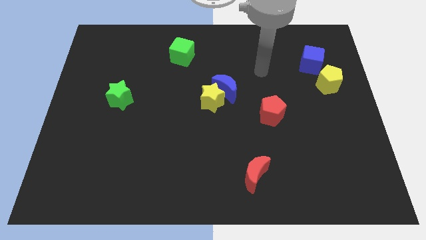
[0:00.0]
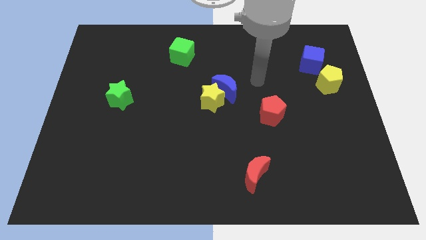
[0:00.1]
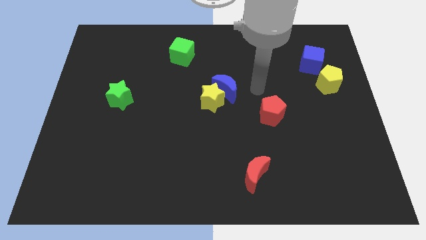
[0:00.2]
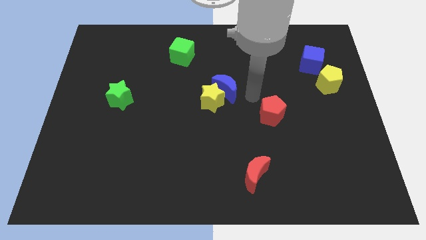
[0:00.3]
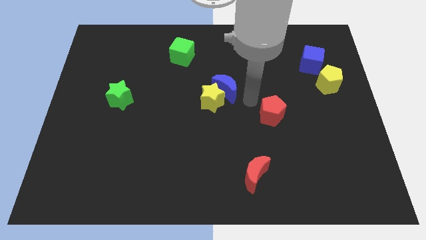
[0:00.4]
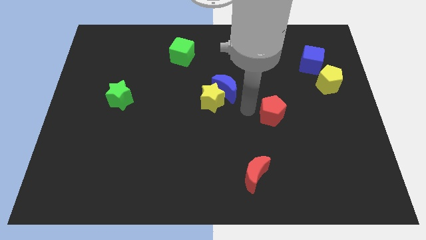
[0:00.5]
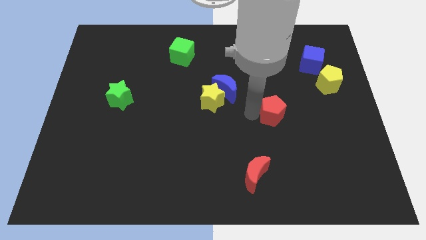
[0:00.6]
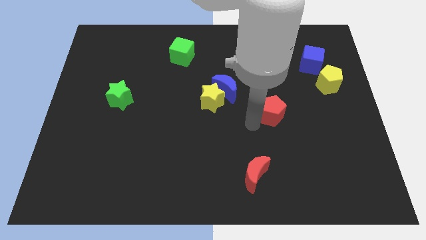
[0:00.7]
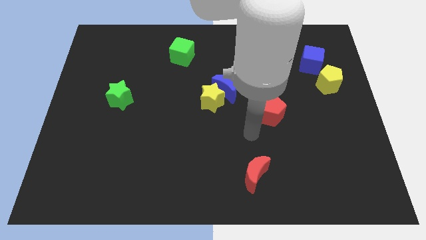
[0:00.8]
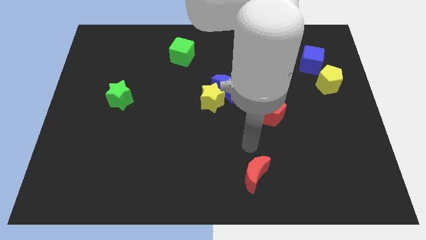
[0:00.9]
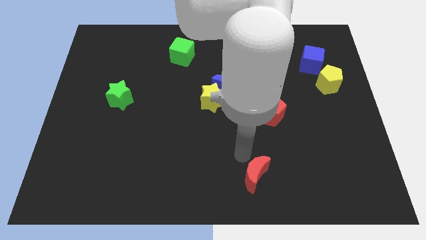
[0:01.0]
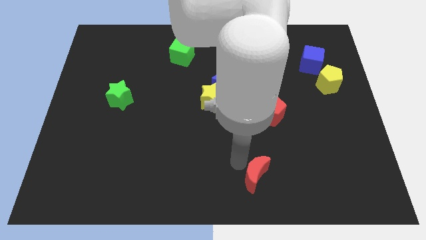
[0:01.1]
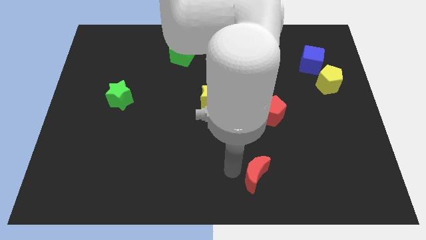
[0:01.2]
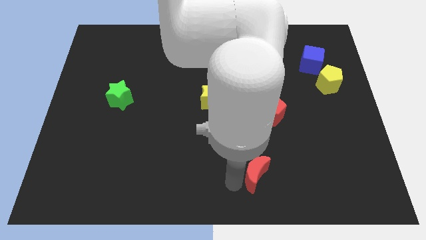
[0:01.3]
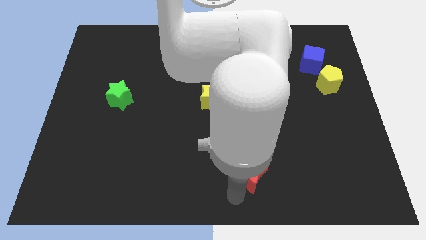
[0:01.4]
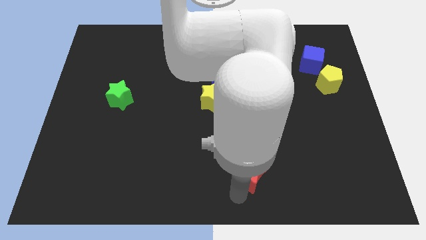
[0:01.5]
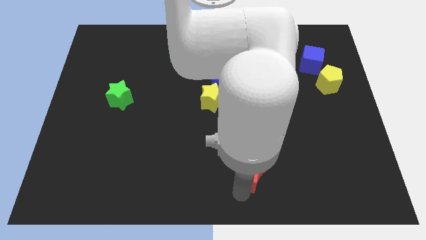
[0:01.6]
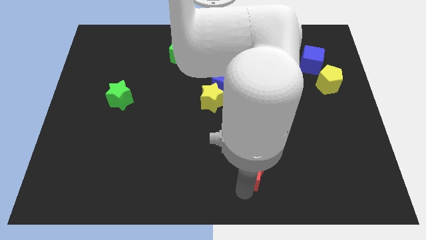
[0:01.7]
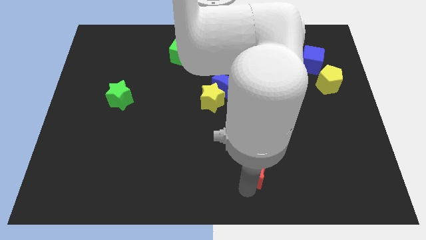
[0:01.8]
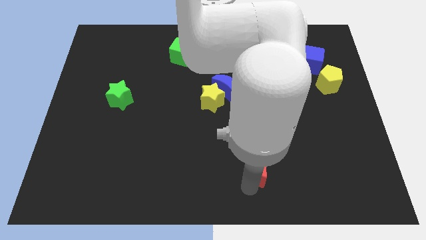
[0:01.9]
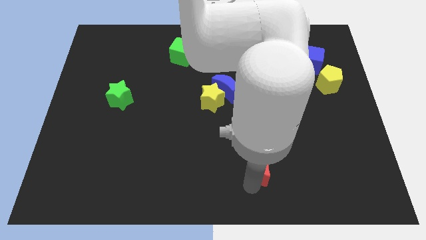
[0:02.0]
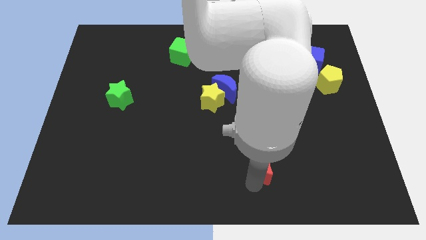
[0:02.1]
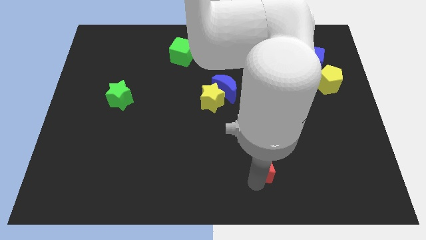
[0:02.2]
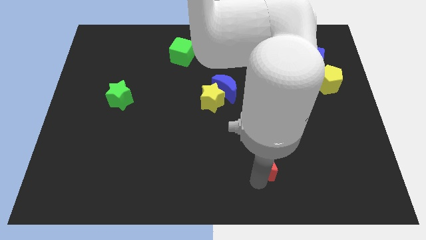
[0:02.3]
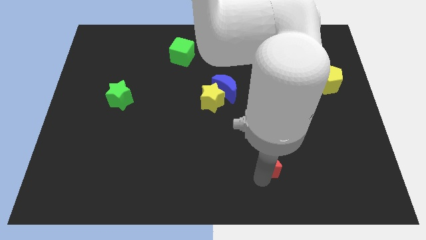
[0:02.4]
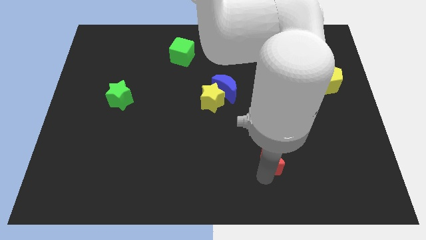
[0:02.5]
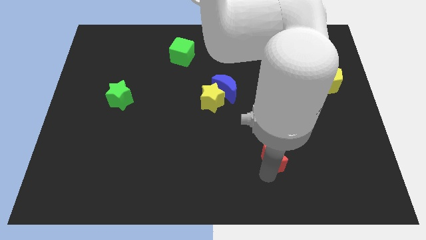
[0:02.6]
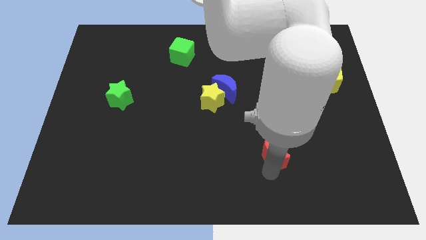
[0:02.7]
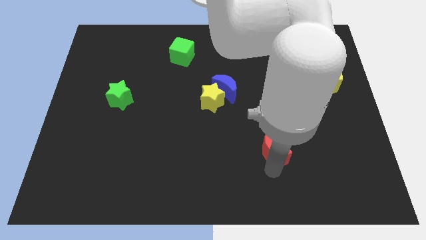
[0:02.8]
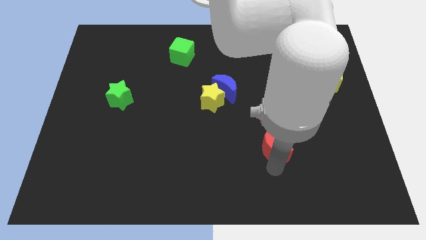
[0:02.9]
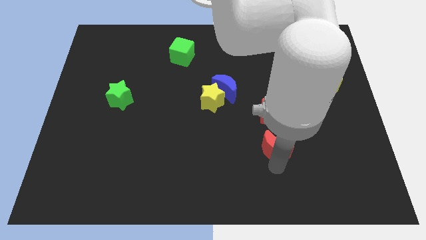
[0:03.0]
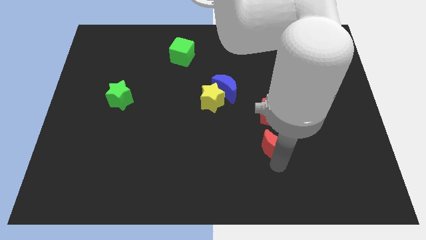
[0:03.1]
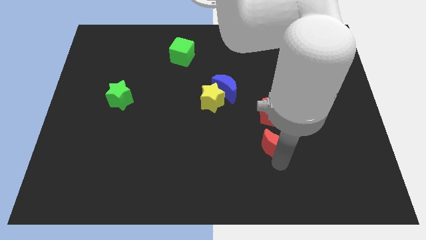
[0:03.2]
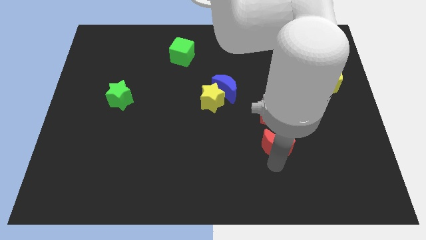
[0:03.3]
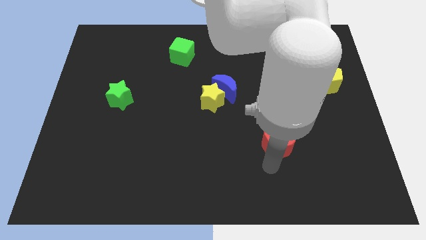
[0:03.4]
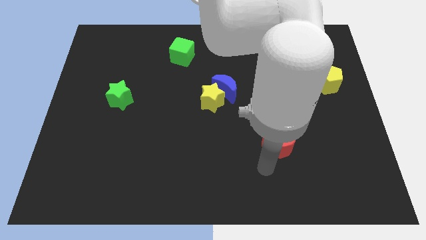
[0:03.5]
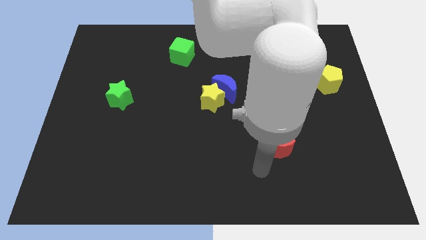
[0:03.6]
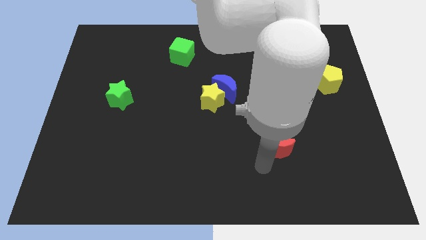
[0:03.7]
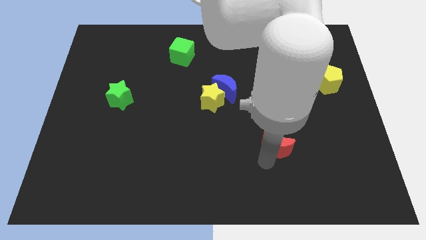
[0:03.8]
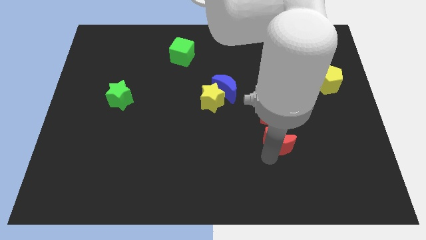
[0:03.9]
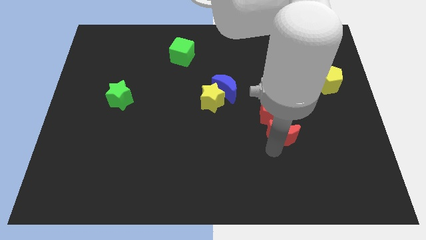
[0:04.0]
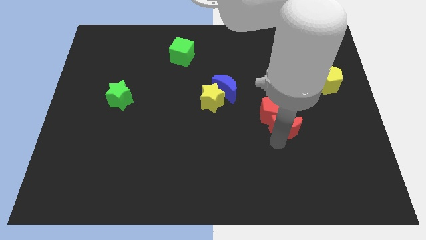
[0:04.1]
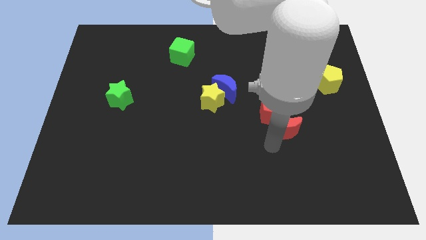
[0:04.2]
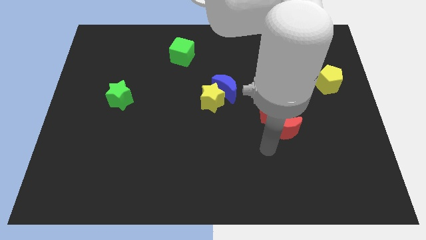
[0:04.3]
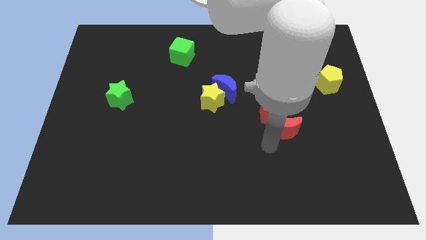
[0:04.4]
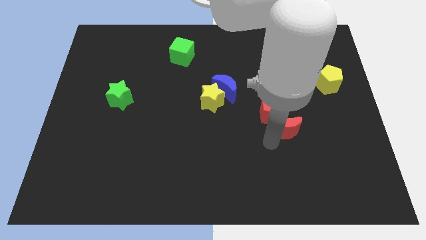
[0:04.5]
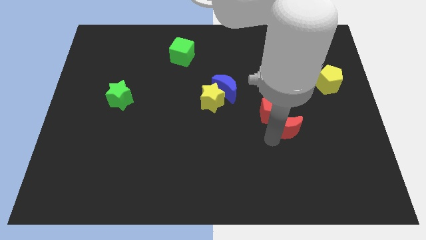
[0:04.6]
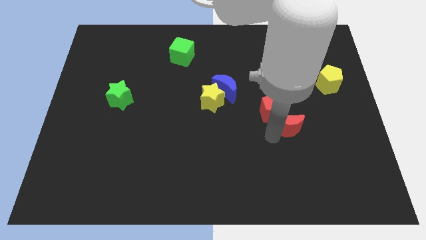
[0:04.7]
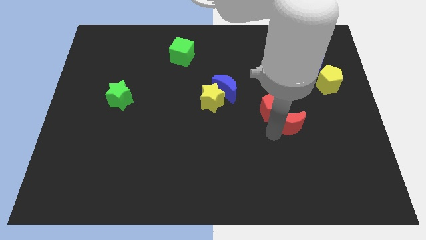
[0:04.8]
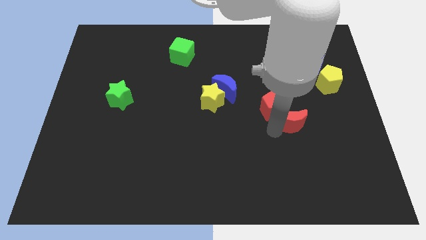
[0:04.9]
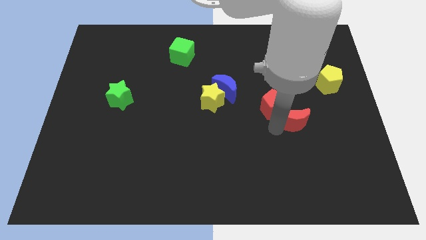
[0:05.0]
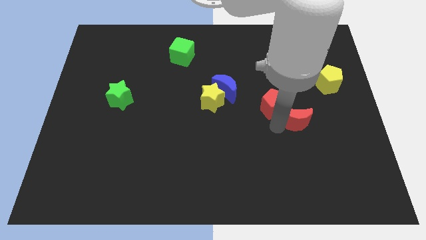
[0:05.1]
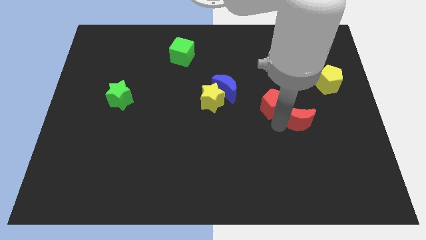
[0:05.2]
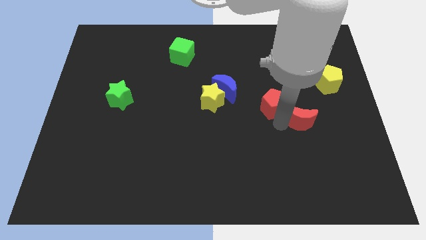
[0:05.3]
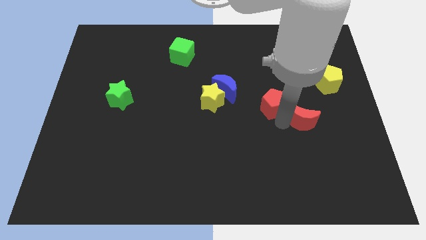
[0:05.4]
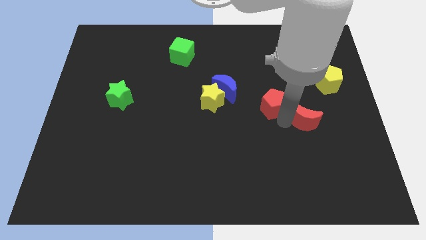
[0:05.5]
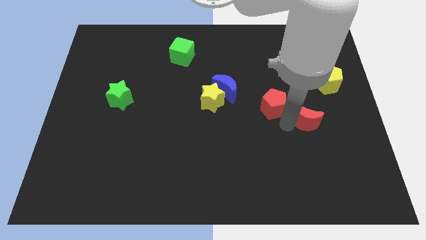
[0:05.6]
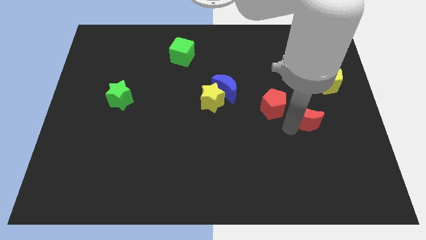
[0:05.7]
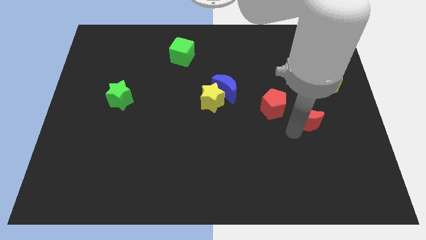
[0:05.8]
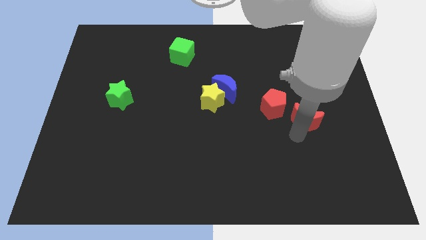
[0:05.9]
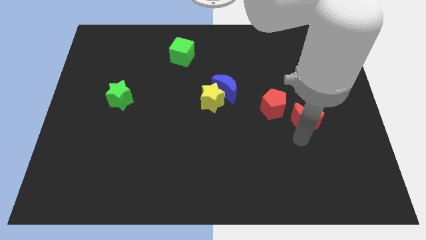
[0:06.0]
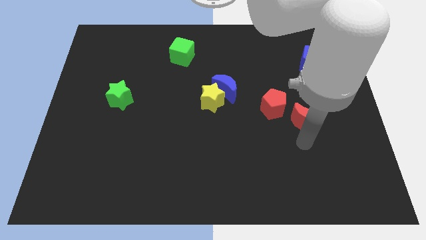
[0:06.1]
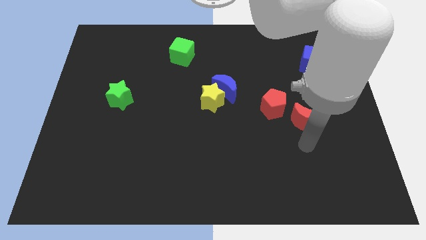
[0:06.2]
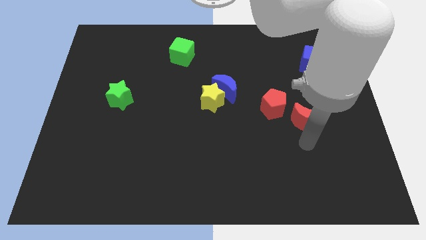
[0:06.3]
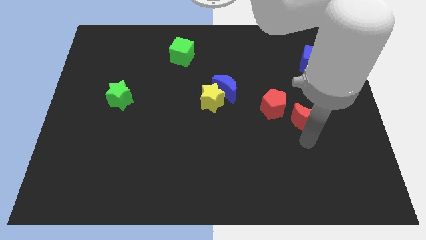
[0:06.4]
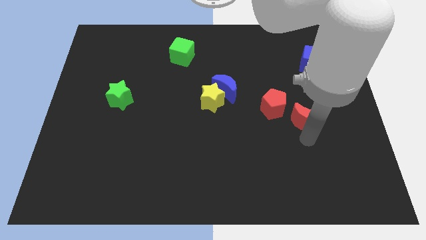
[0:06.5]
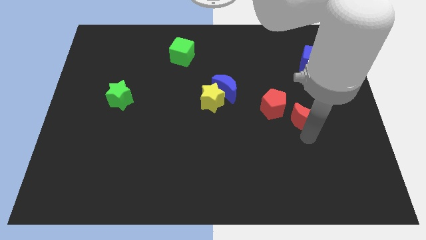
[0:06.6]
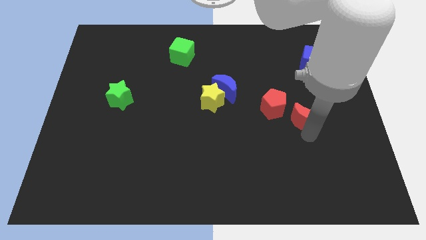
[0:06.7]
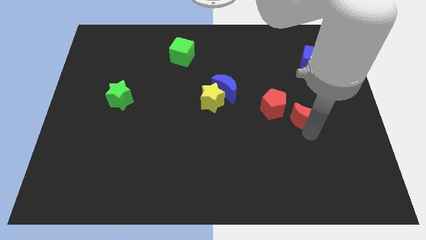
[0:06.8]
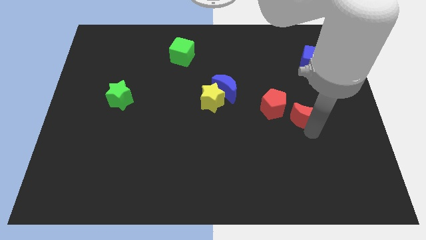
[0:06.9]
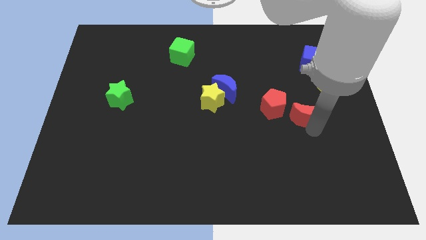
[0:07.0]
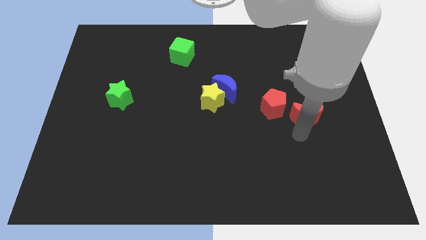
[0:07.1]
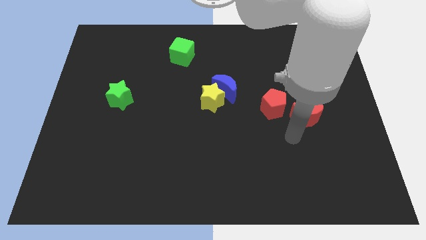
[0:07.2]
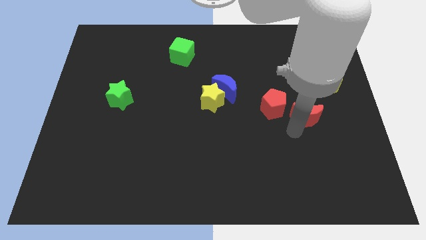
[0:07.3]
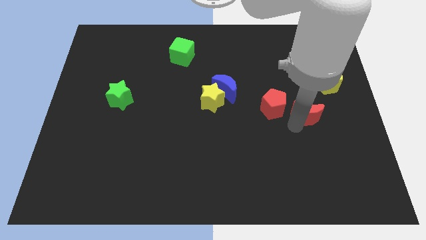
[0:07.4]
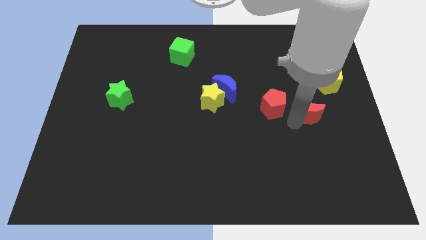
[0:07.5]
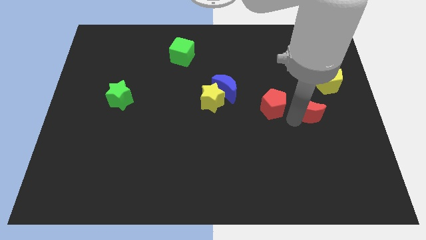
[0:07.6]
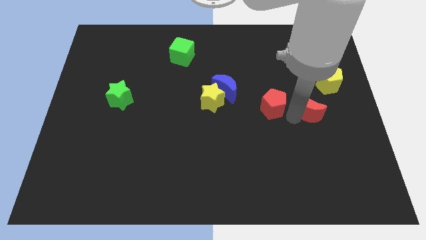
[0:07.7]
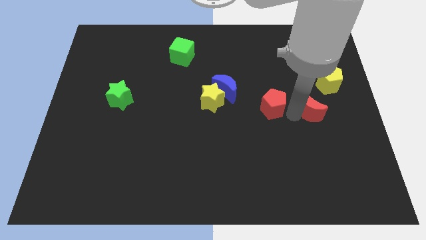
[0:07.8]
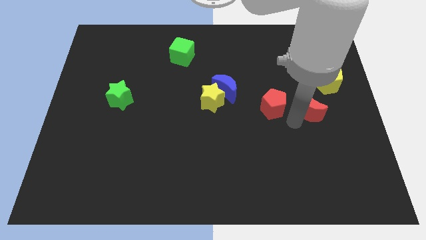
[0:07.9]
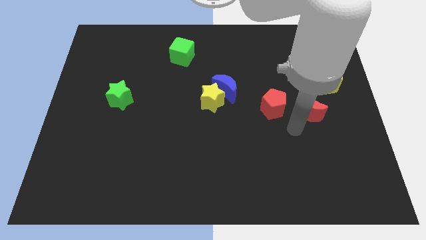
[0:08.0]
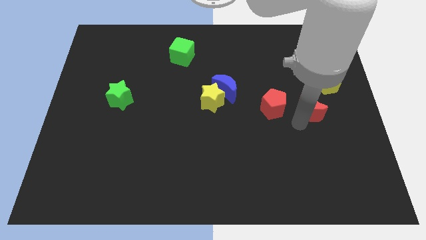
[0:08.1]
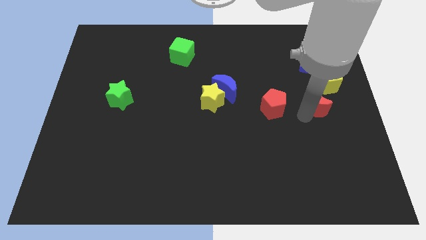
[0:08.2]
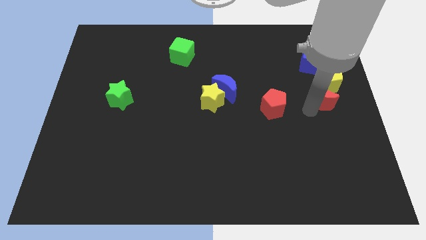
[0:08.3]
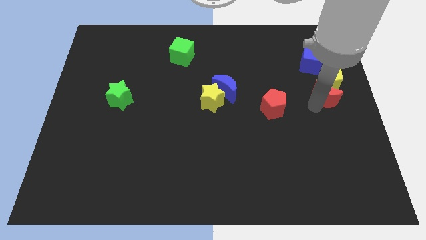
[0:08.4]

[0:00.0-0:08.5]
slide the red moon close to the yellow pentagon
